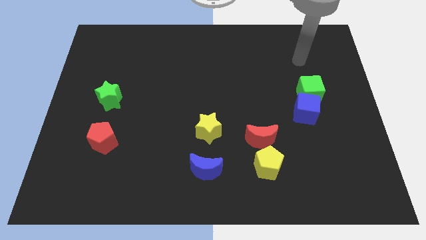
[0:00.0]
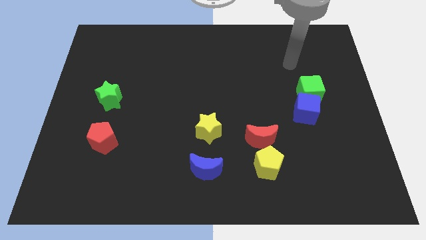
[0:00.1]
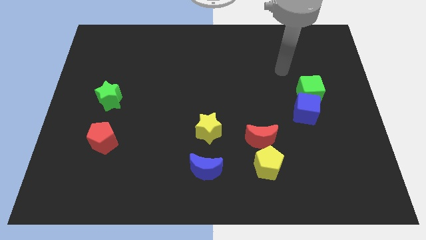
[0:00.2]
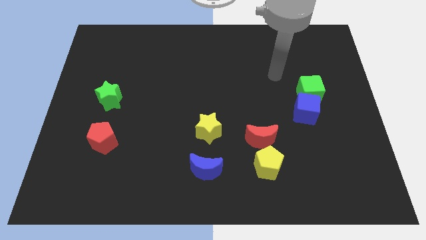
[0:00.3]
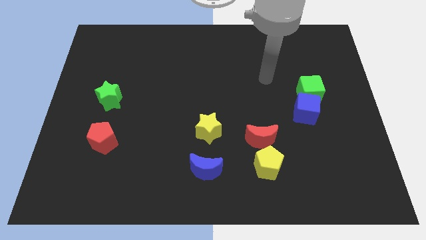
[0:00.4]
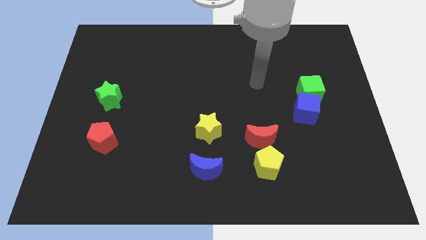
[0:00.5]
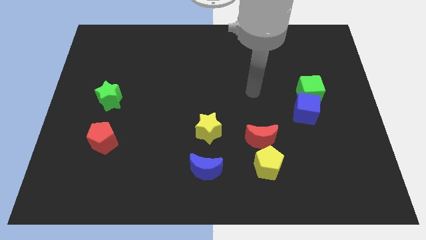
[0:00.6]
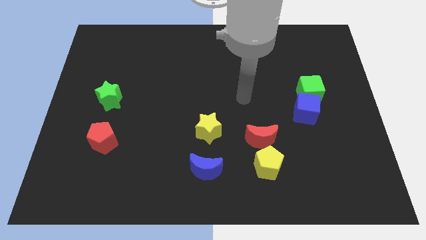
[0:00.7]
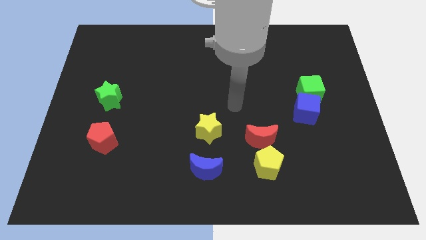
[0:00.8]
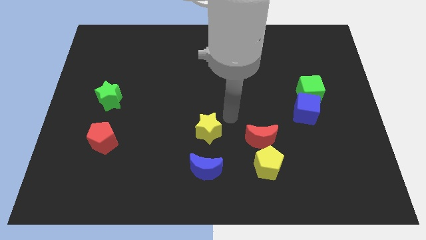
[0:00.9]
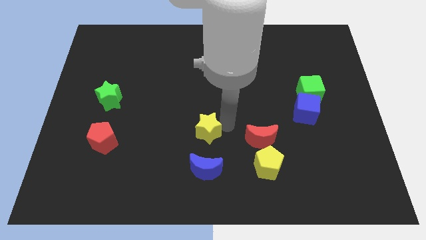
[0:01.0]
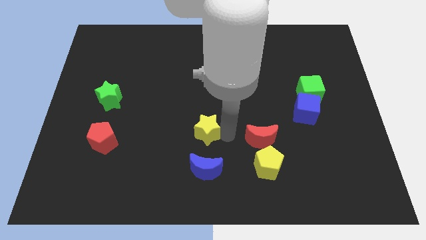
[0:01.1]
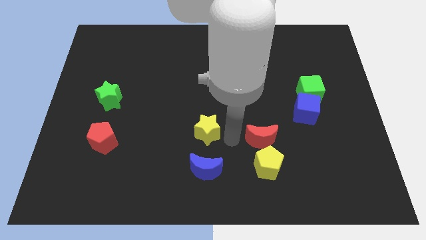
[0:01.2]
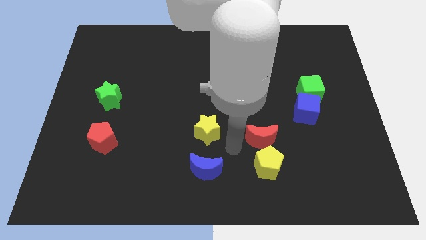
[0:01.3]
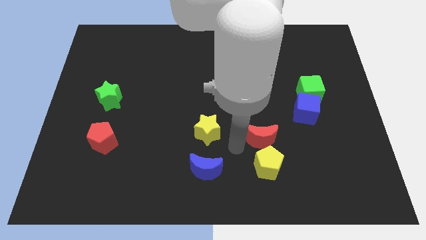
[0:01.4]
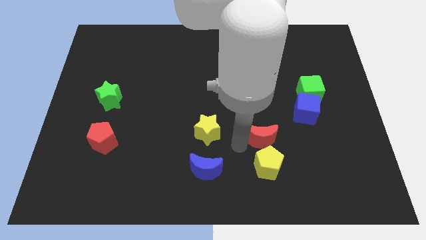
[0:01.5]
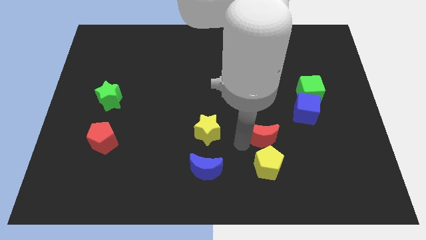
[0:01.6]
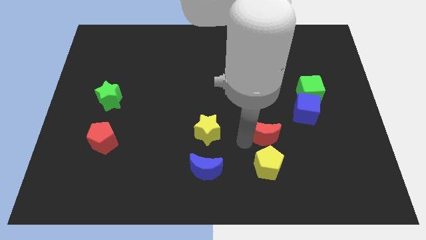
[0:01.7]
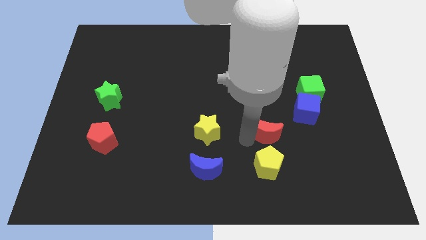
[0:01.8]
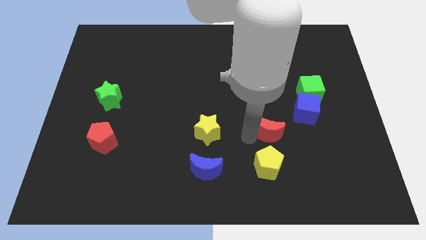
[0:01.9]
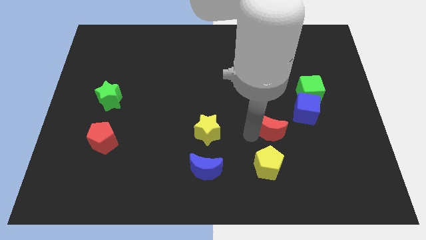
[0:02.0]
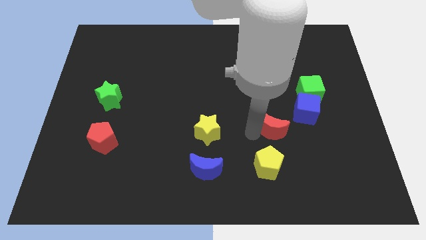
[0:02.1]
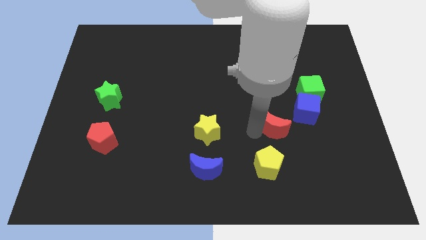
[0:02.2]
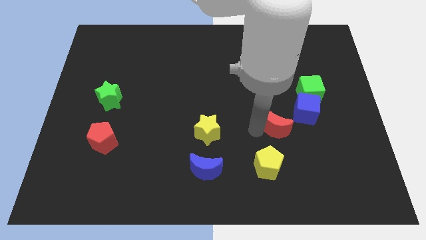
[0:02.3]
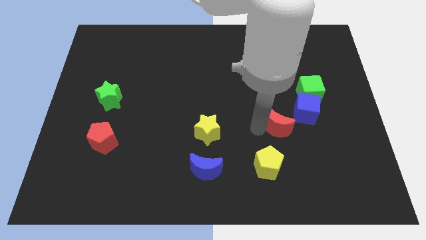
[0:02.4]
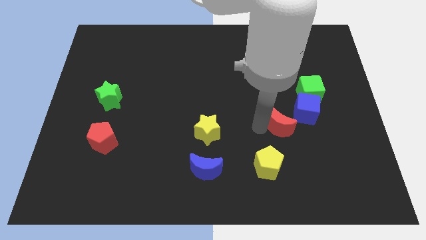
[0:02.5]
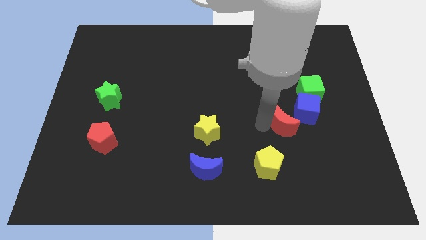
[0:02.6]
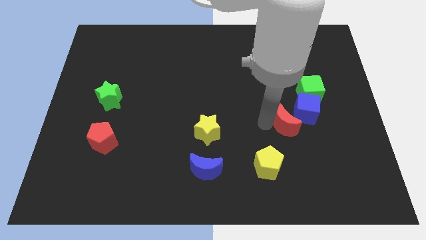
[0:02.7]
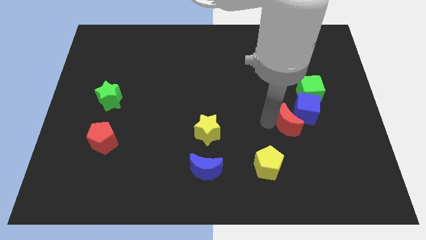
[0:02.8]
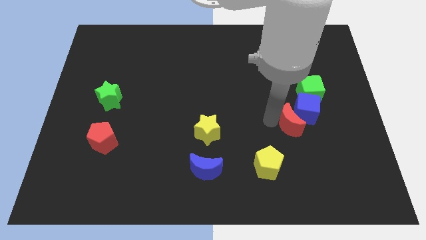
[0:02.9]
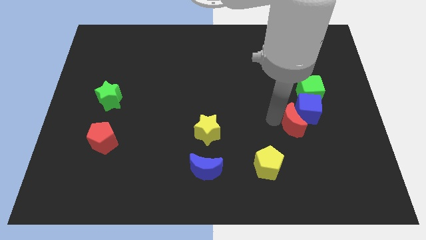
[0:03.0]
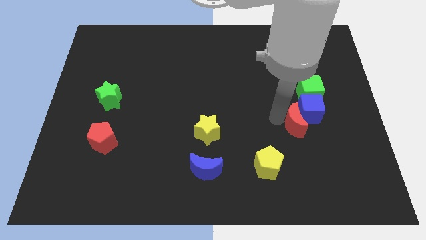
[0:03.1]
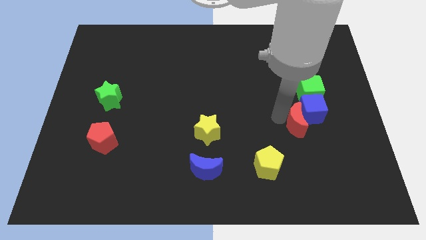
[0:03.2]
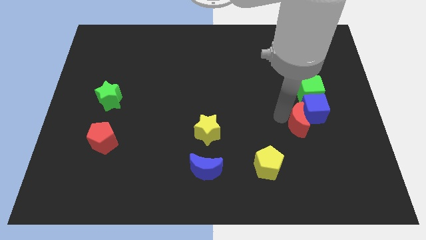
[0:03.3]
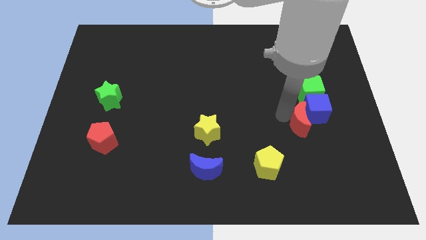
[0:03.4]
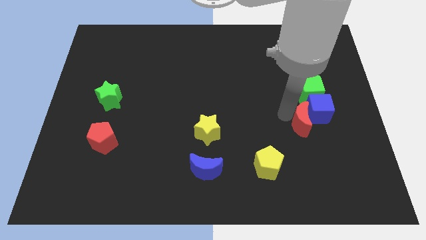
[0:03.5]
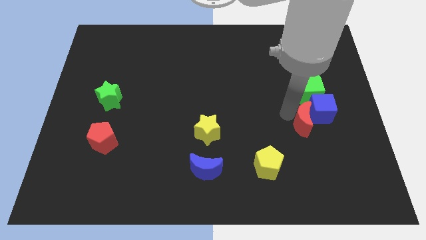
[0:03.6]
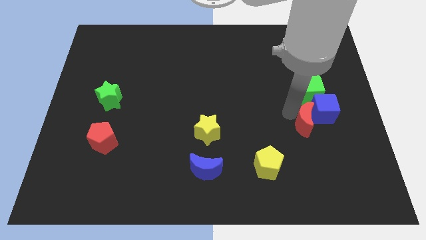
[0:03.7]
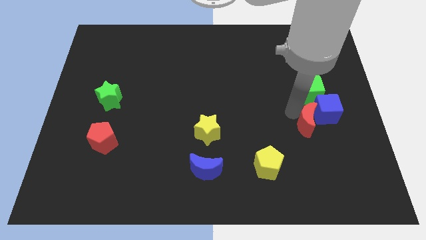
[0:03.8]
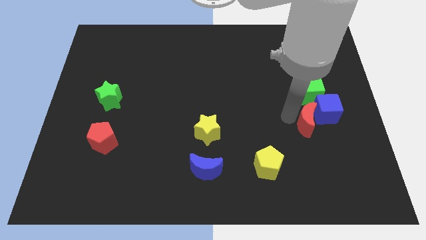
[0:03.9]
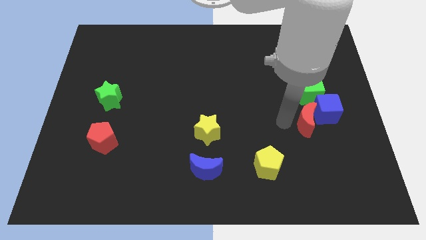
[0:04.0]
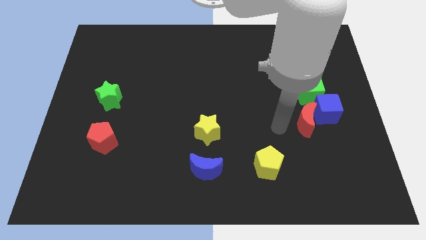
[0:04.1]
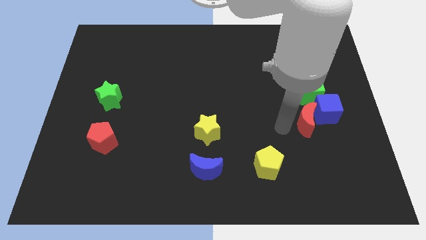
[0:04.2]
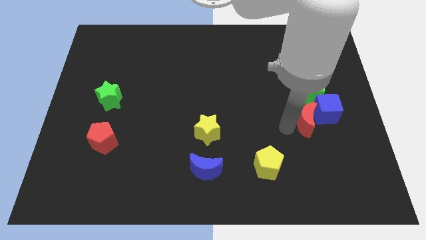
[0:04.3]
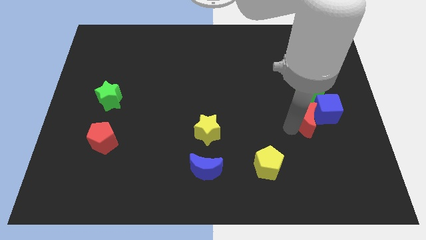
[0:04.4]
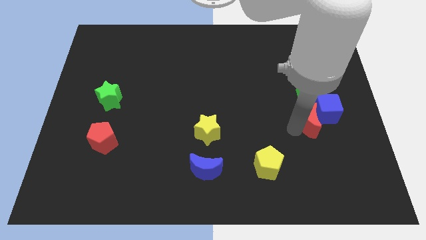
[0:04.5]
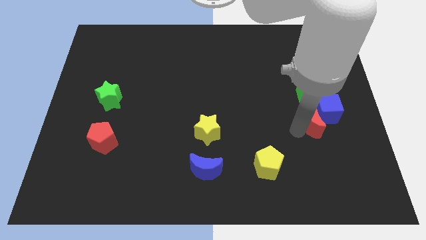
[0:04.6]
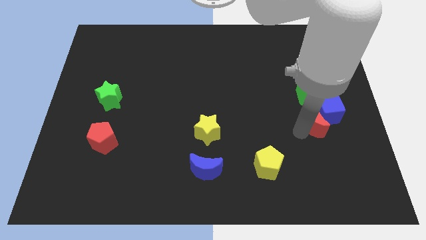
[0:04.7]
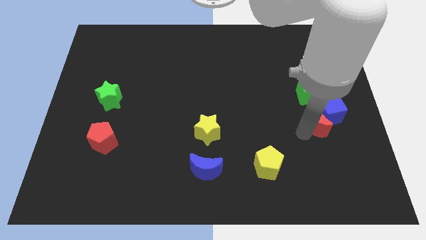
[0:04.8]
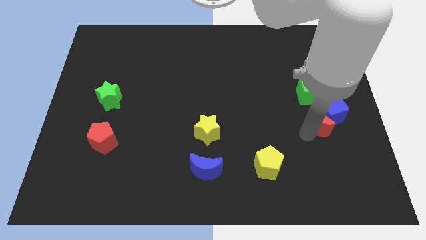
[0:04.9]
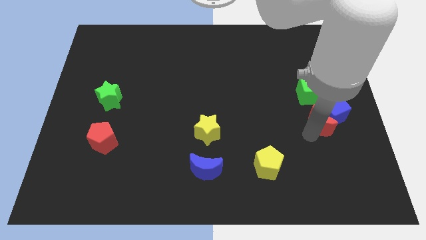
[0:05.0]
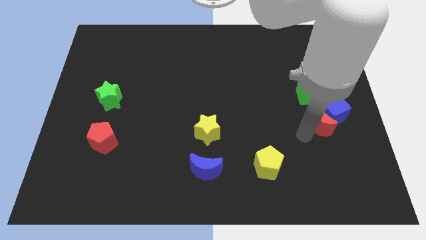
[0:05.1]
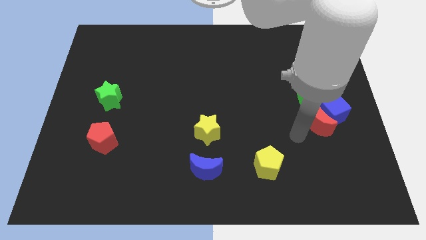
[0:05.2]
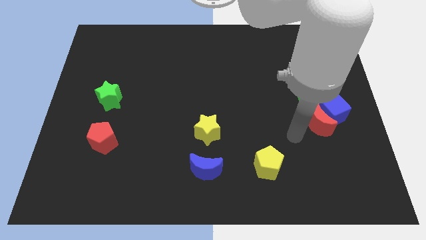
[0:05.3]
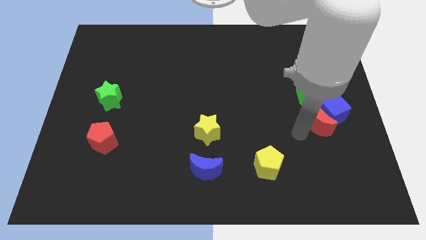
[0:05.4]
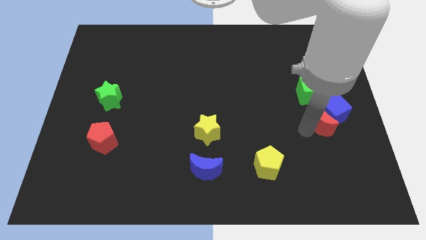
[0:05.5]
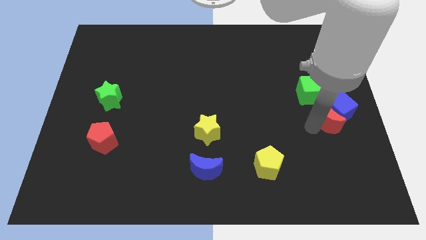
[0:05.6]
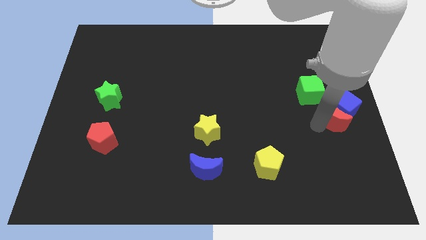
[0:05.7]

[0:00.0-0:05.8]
put the red moon to the right side of the board
